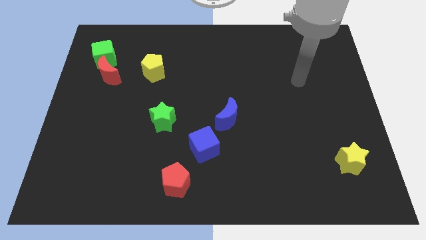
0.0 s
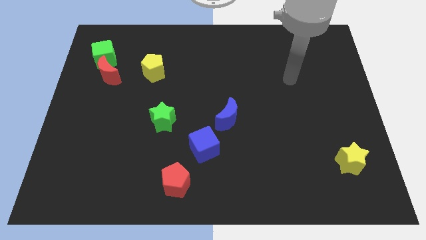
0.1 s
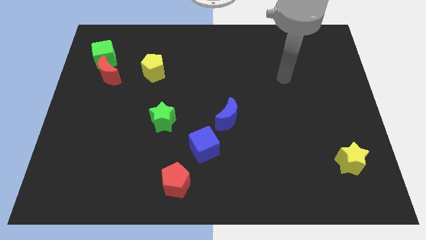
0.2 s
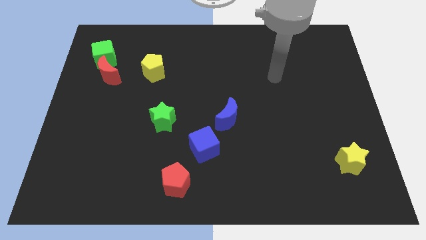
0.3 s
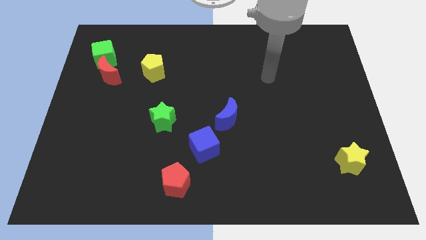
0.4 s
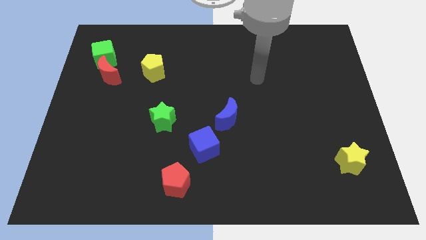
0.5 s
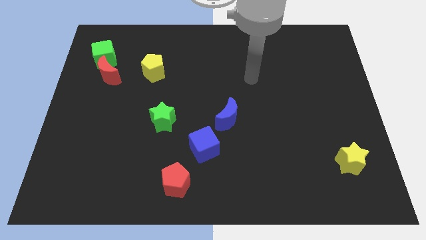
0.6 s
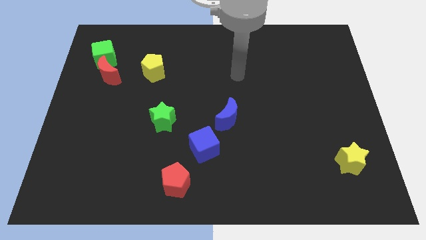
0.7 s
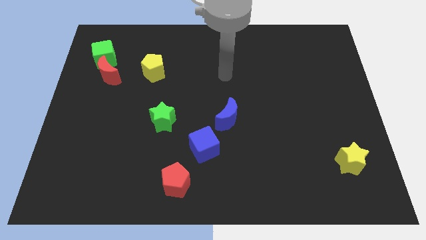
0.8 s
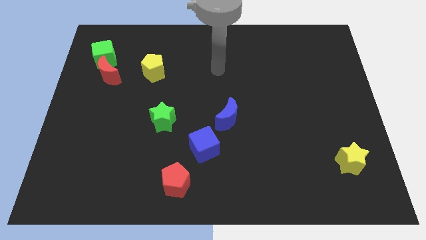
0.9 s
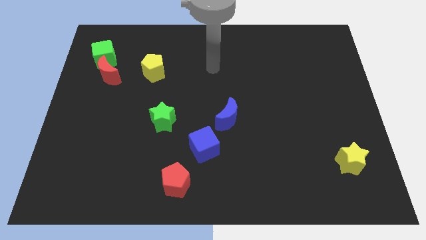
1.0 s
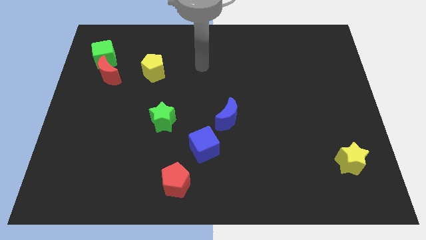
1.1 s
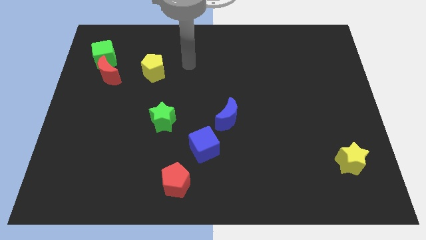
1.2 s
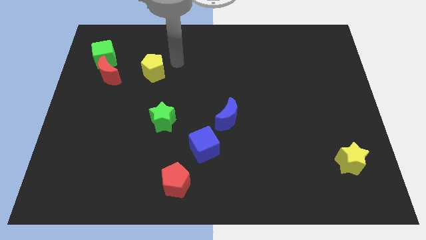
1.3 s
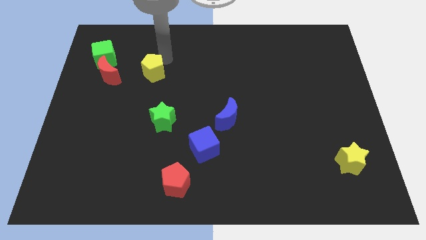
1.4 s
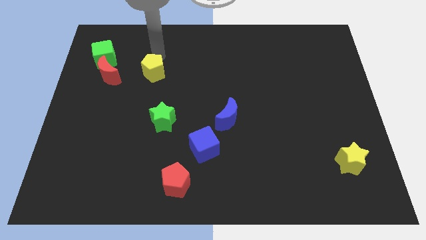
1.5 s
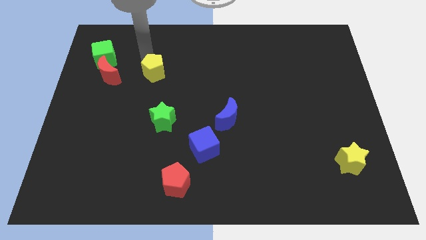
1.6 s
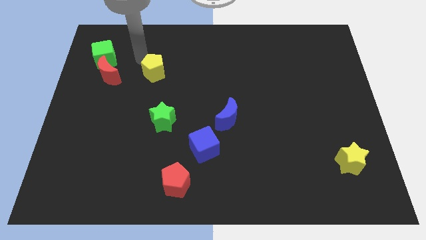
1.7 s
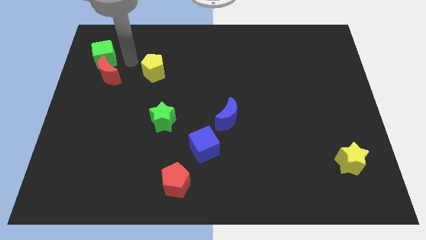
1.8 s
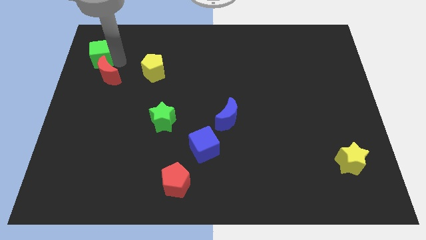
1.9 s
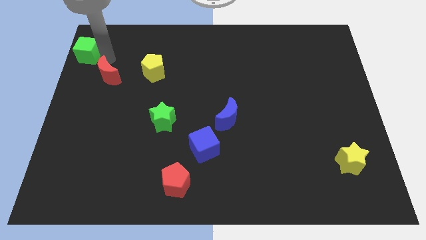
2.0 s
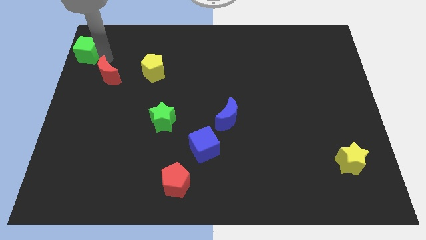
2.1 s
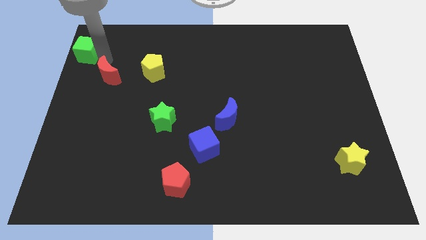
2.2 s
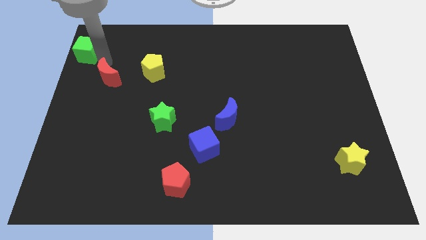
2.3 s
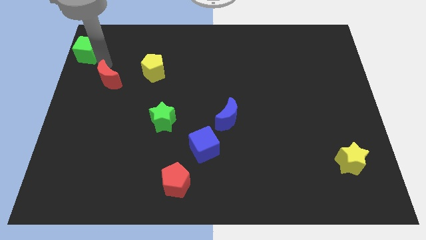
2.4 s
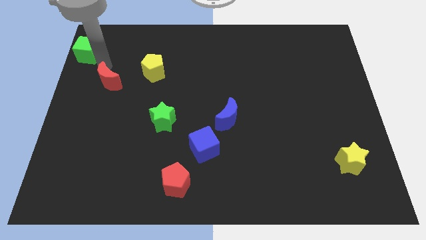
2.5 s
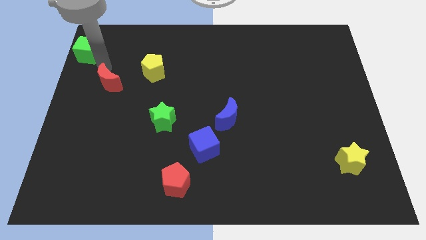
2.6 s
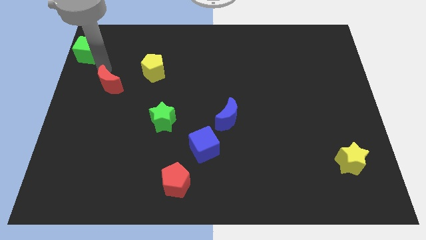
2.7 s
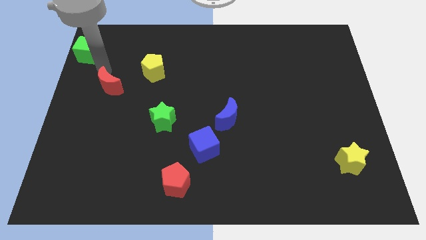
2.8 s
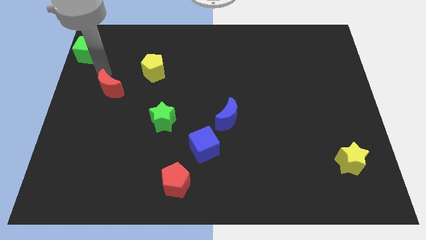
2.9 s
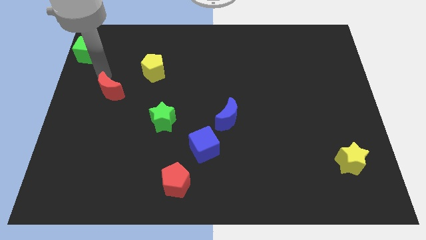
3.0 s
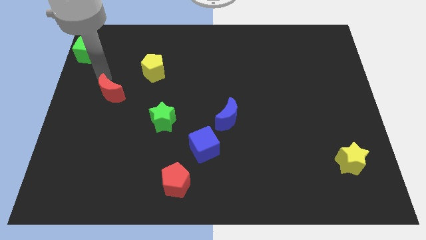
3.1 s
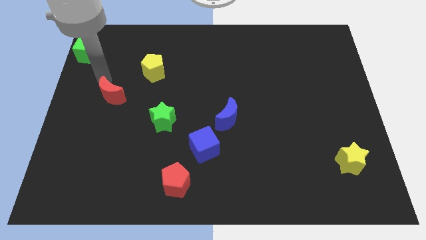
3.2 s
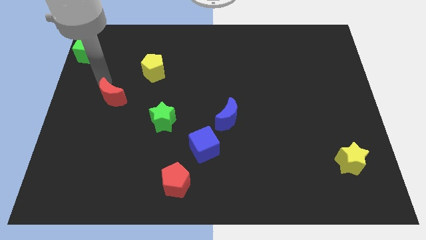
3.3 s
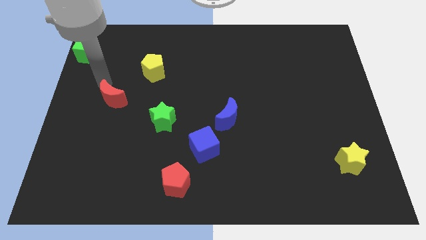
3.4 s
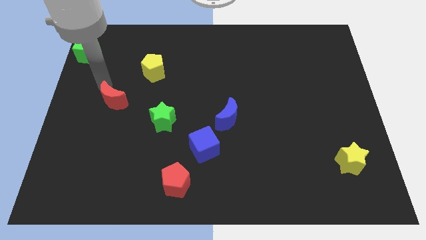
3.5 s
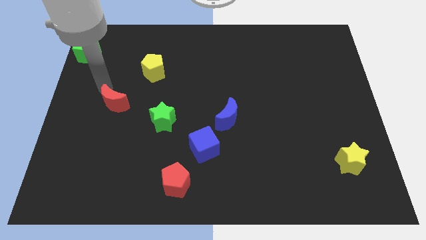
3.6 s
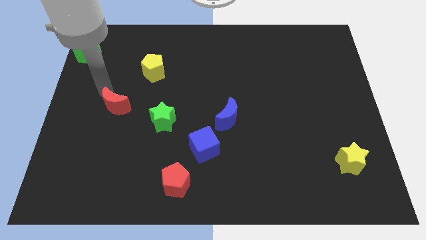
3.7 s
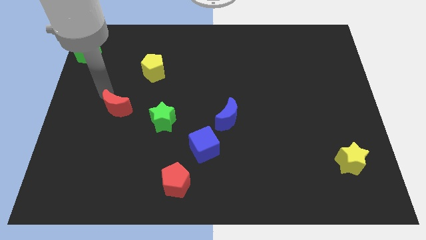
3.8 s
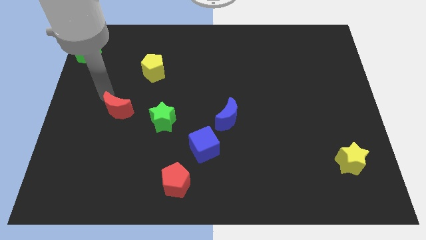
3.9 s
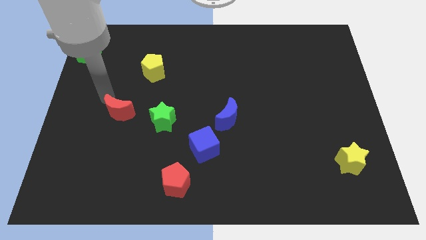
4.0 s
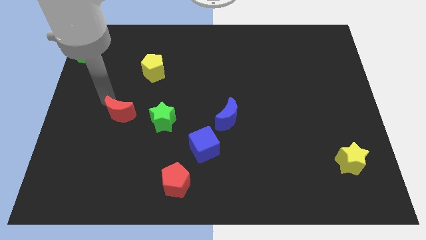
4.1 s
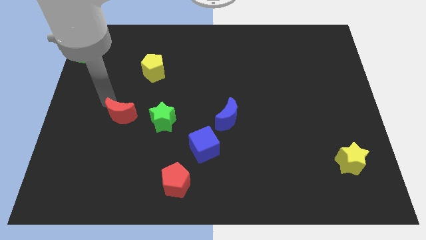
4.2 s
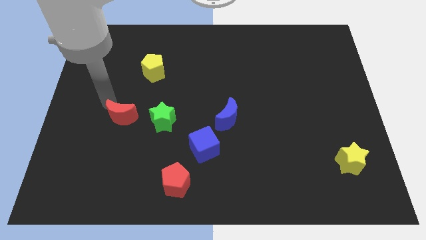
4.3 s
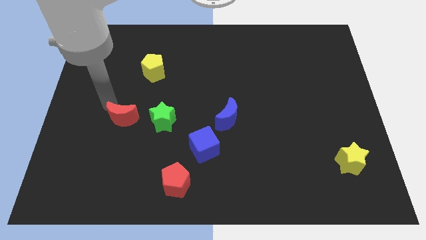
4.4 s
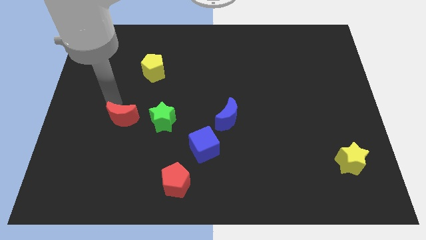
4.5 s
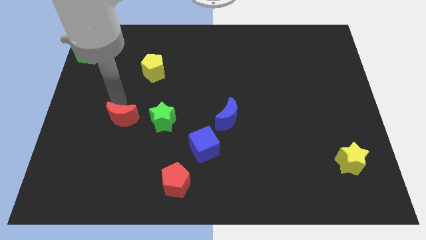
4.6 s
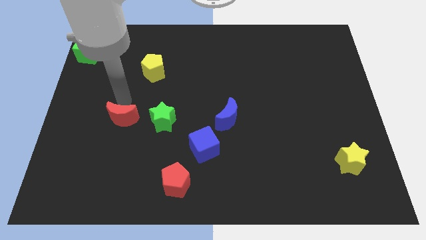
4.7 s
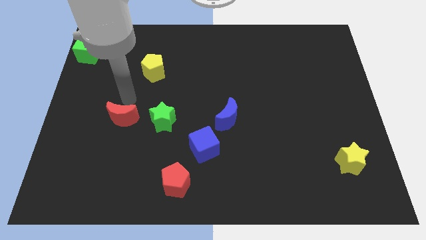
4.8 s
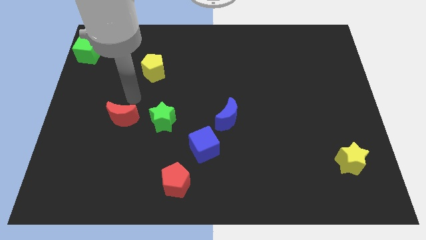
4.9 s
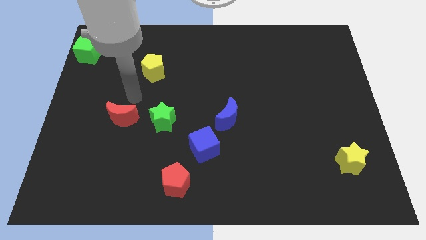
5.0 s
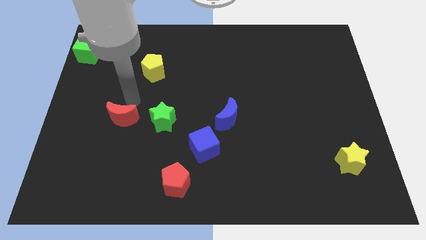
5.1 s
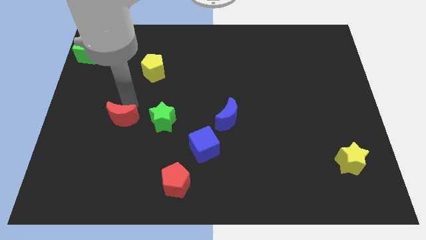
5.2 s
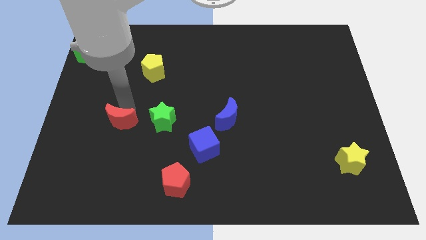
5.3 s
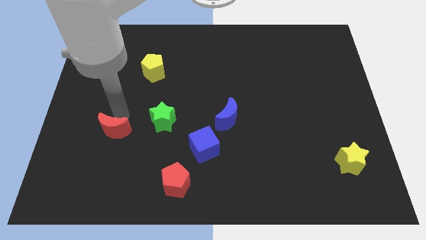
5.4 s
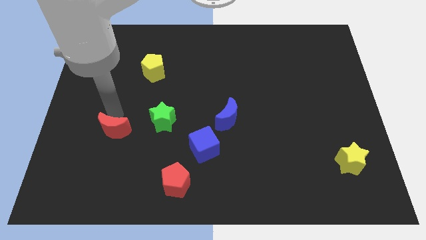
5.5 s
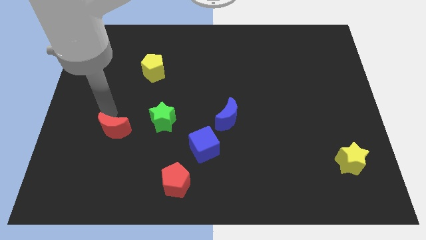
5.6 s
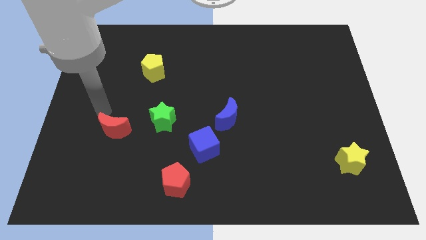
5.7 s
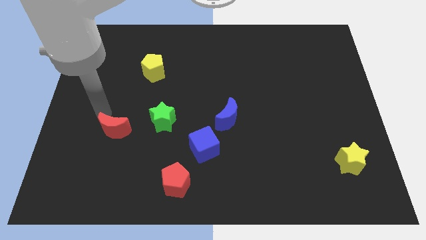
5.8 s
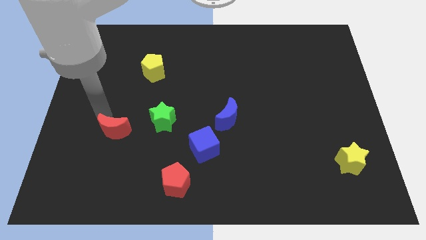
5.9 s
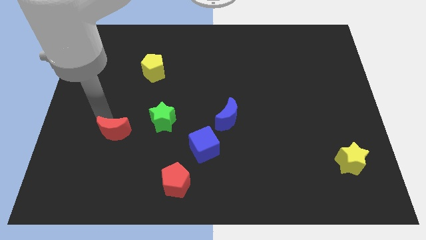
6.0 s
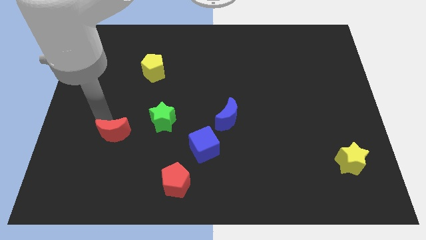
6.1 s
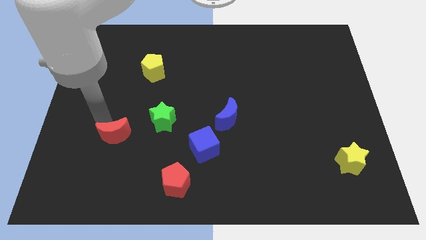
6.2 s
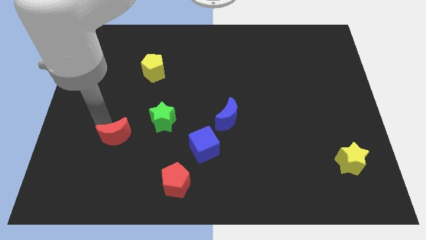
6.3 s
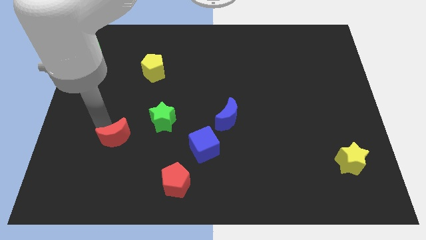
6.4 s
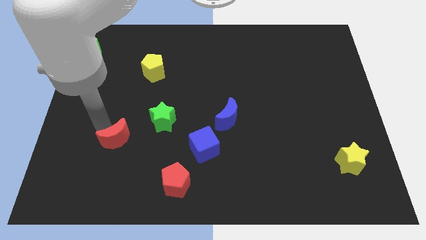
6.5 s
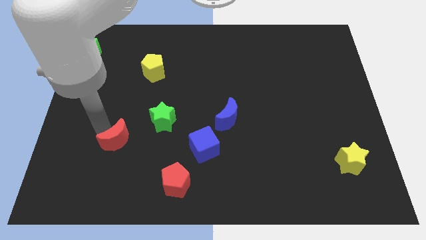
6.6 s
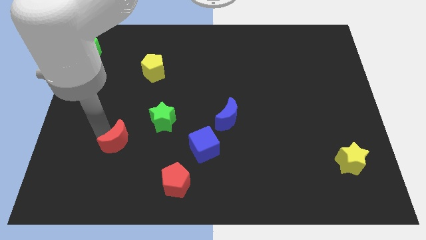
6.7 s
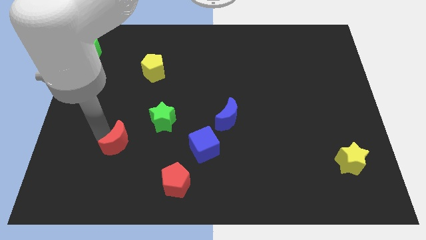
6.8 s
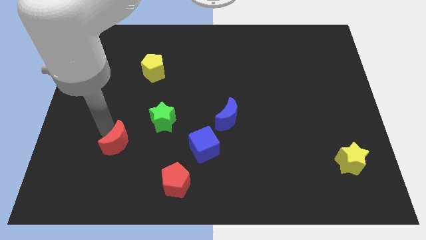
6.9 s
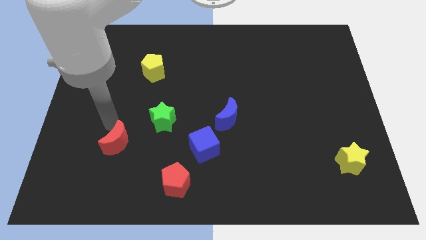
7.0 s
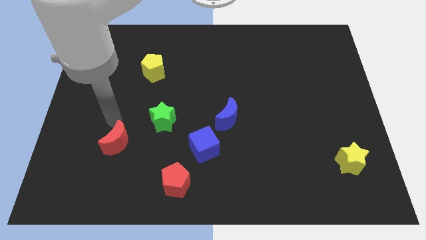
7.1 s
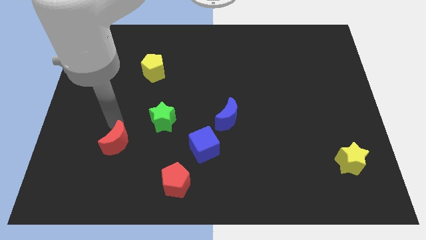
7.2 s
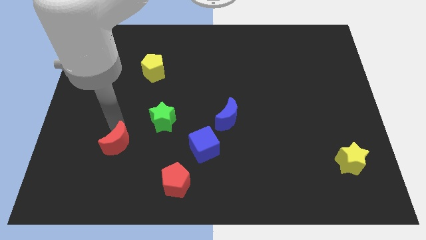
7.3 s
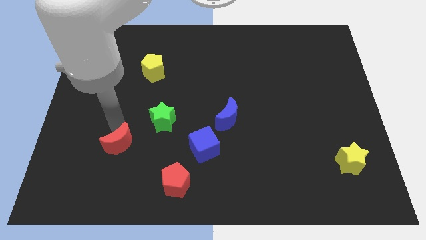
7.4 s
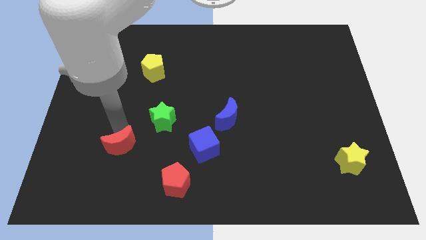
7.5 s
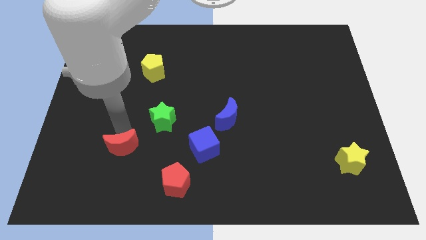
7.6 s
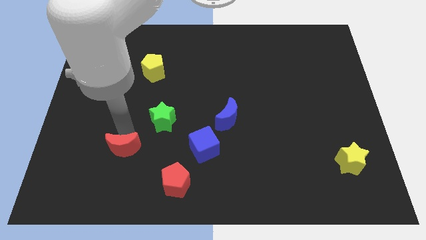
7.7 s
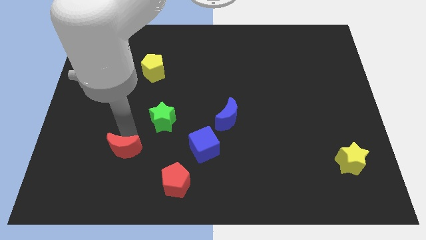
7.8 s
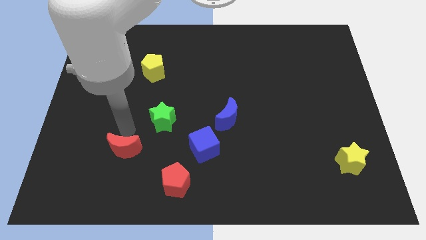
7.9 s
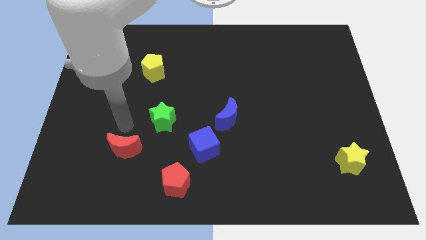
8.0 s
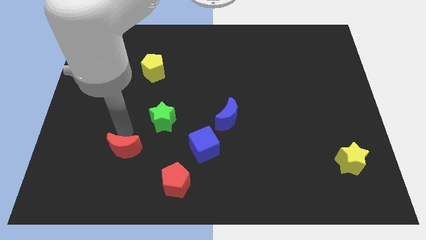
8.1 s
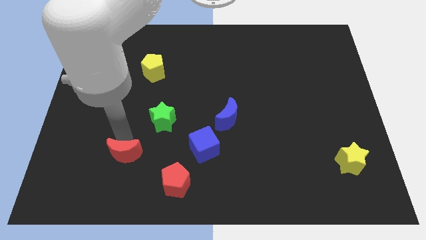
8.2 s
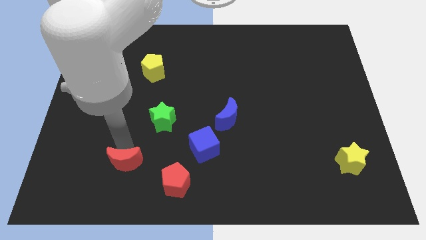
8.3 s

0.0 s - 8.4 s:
move the red moon left of the red pentagon
